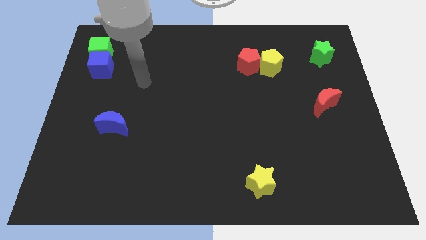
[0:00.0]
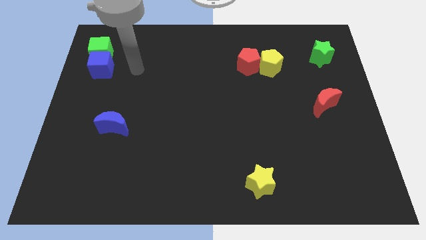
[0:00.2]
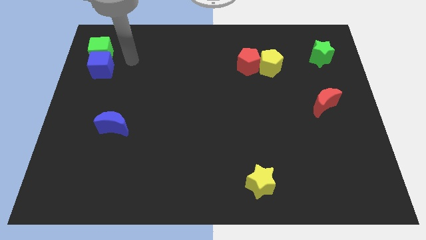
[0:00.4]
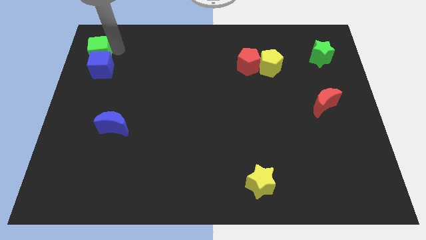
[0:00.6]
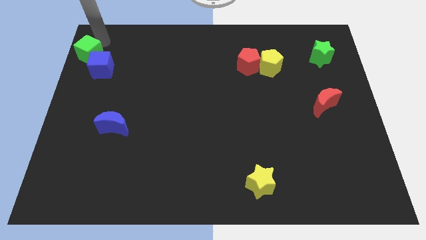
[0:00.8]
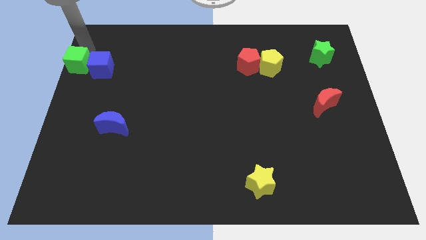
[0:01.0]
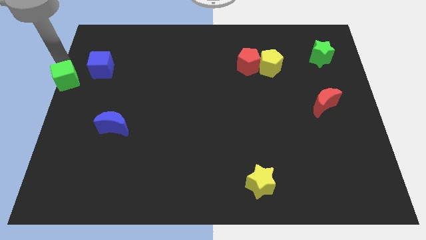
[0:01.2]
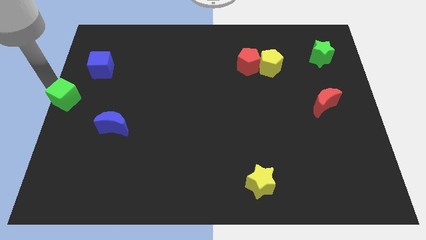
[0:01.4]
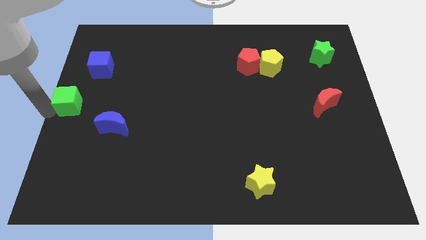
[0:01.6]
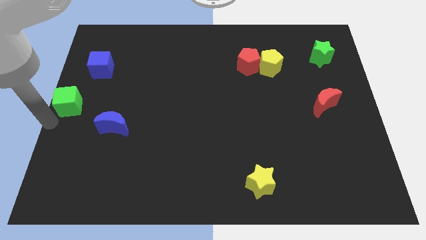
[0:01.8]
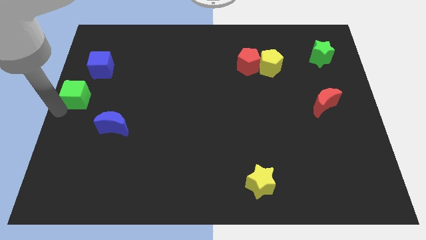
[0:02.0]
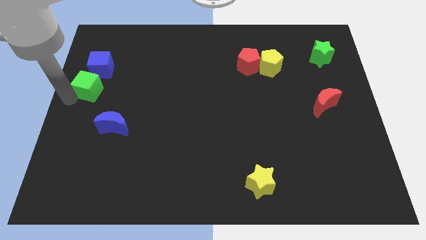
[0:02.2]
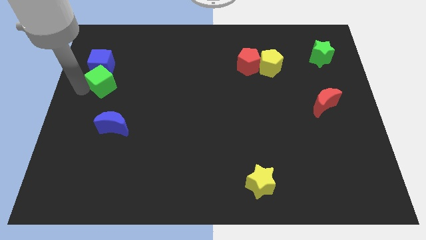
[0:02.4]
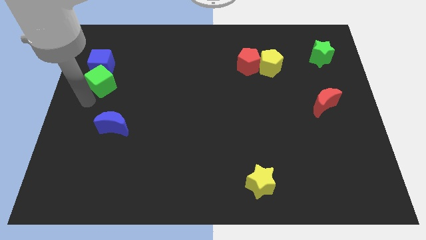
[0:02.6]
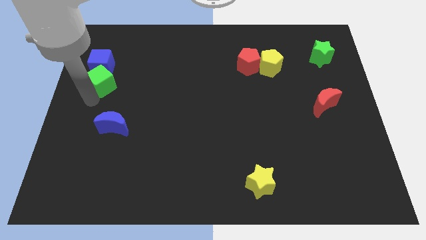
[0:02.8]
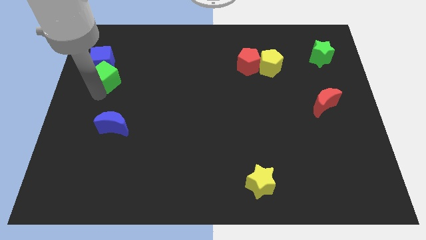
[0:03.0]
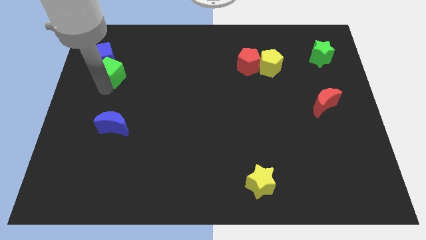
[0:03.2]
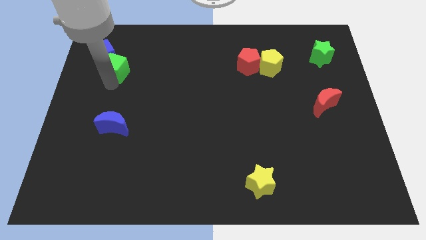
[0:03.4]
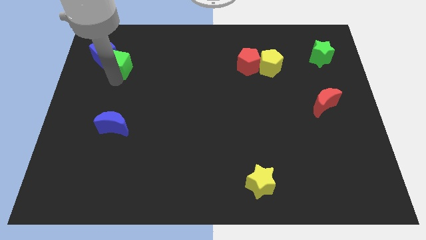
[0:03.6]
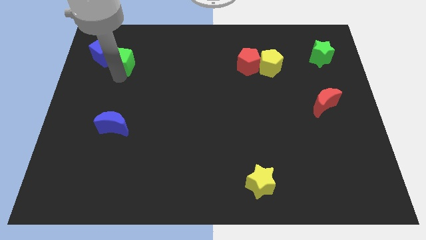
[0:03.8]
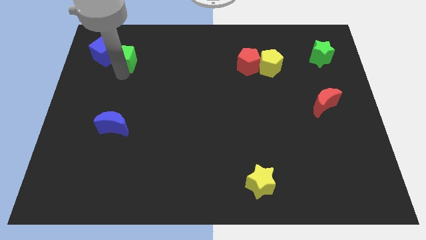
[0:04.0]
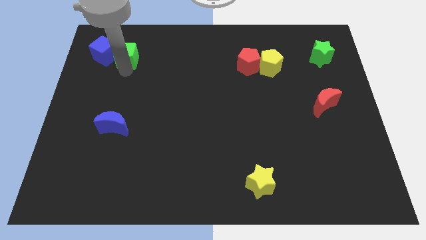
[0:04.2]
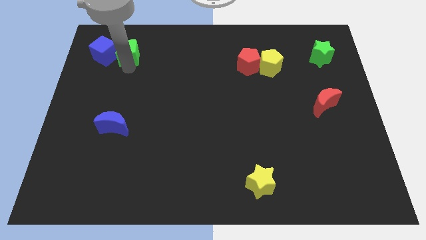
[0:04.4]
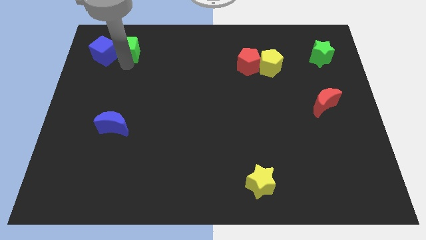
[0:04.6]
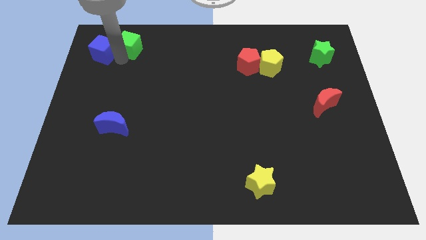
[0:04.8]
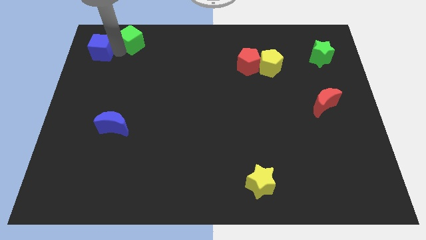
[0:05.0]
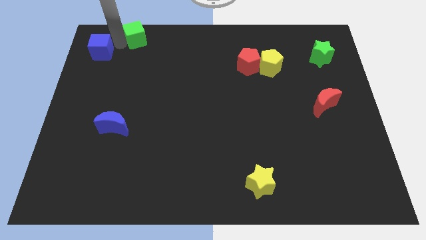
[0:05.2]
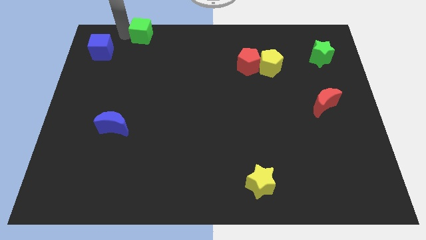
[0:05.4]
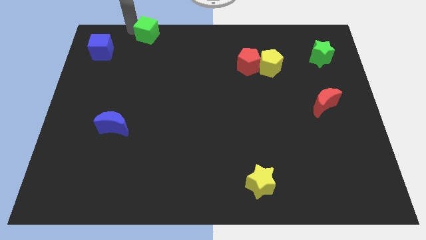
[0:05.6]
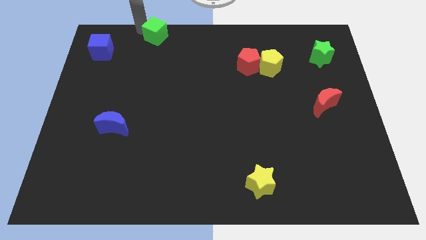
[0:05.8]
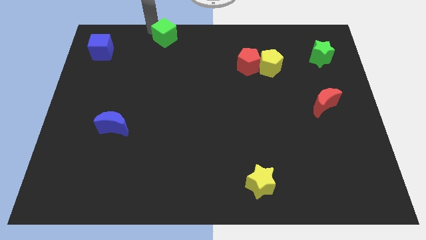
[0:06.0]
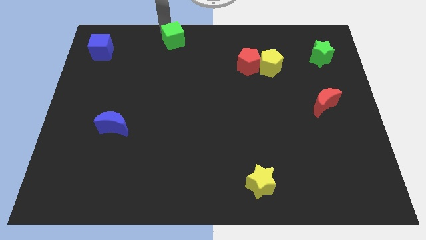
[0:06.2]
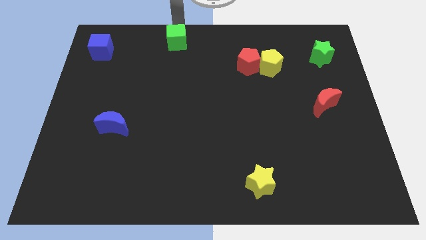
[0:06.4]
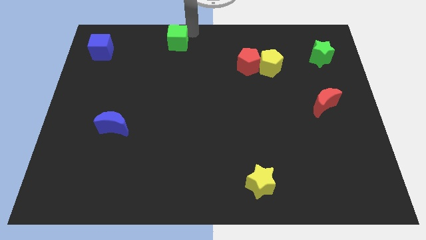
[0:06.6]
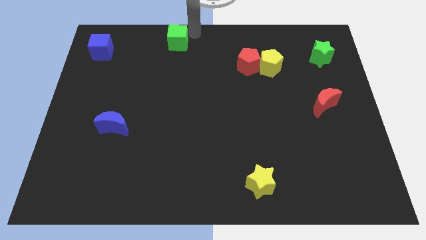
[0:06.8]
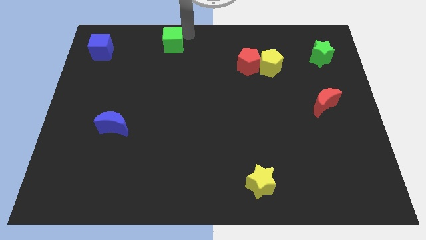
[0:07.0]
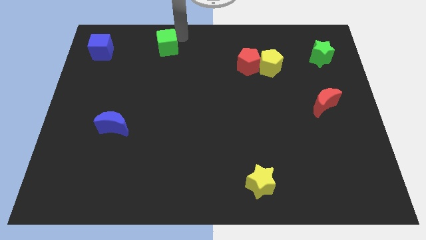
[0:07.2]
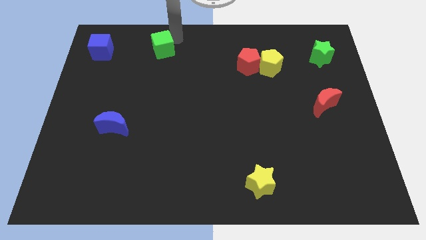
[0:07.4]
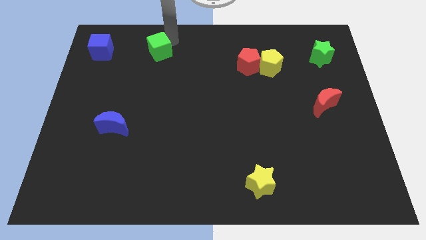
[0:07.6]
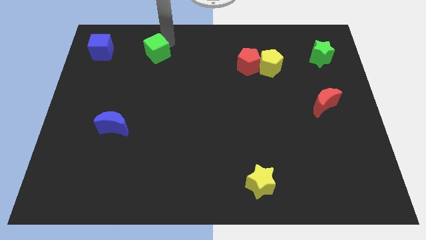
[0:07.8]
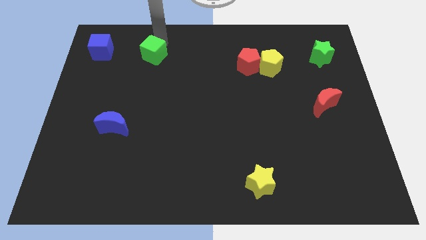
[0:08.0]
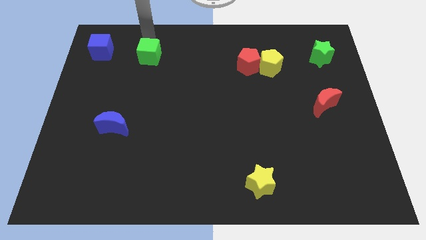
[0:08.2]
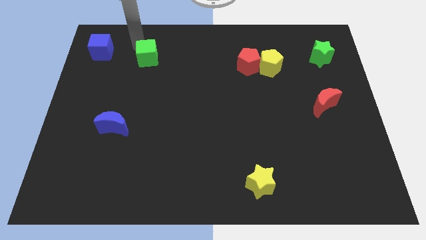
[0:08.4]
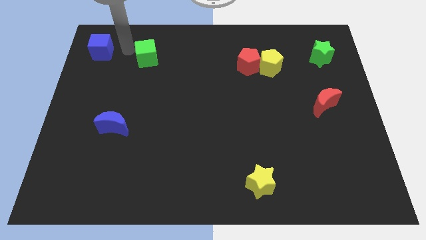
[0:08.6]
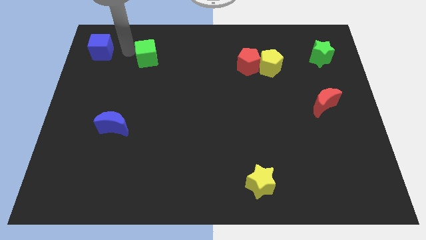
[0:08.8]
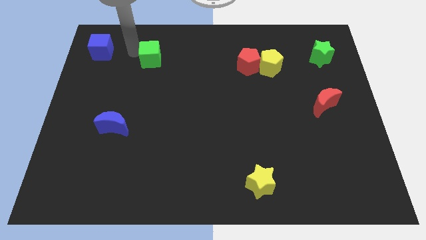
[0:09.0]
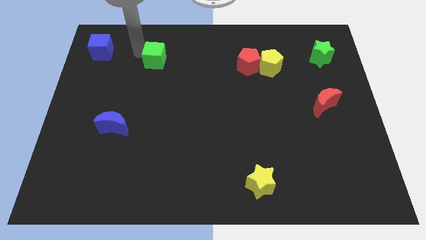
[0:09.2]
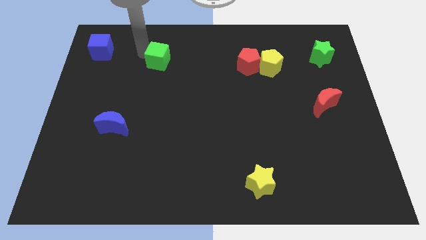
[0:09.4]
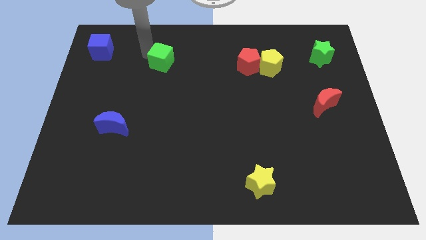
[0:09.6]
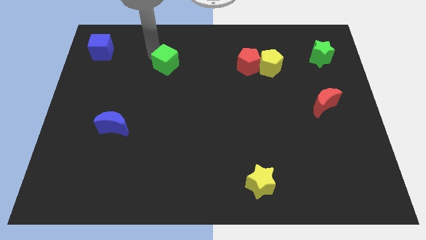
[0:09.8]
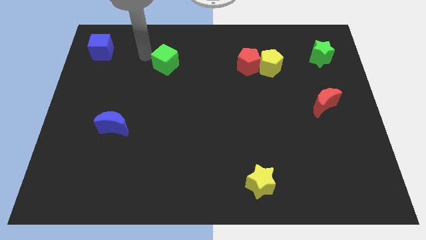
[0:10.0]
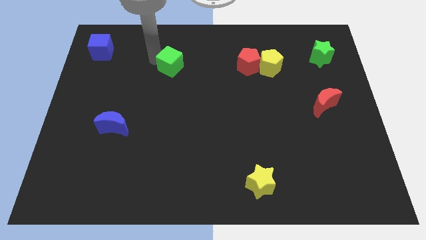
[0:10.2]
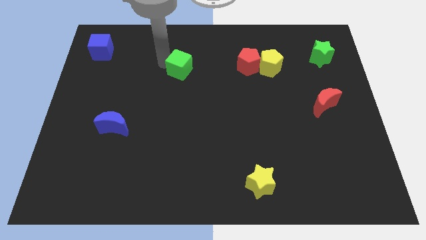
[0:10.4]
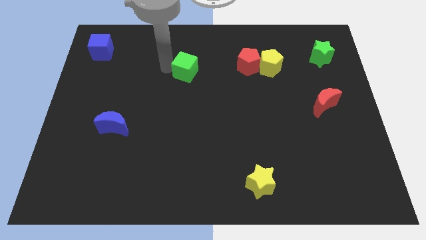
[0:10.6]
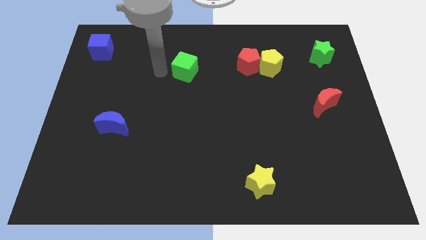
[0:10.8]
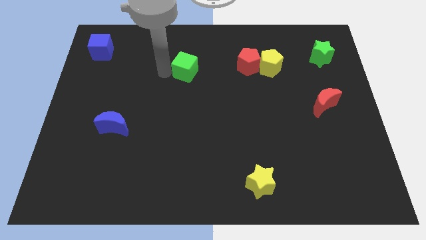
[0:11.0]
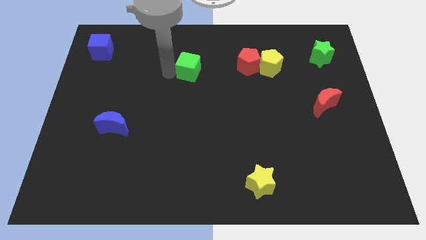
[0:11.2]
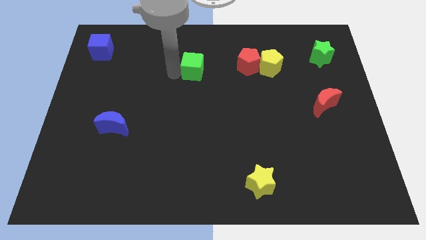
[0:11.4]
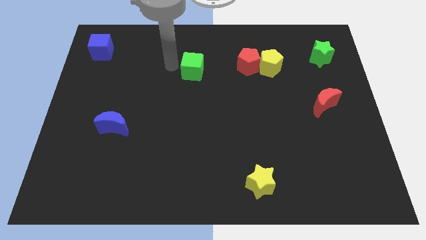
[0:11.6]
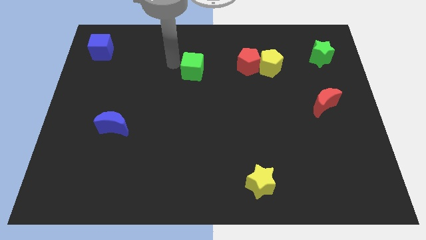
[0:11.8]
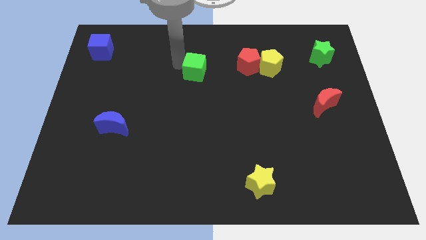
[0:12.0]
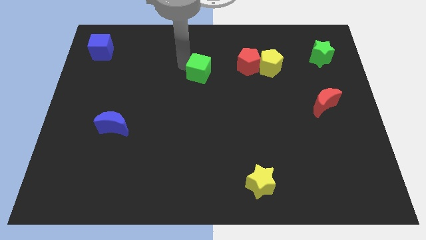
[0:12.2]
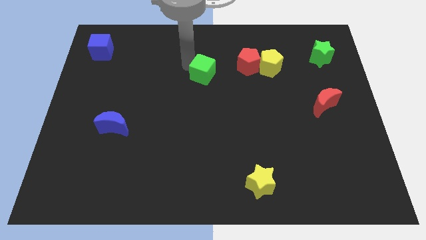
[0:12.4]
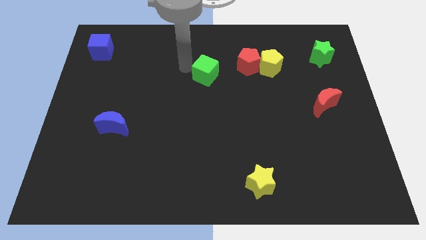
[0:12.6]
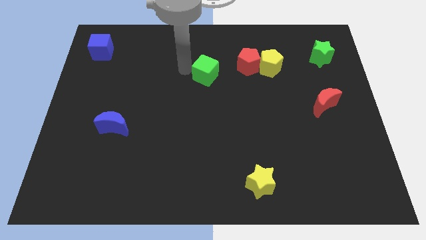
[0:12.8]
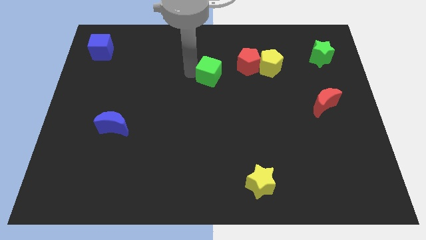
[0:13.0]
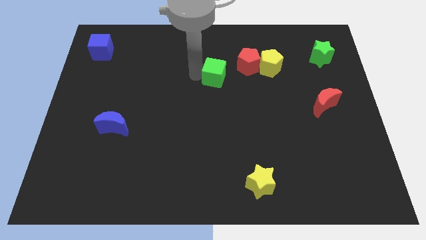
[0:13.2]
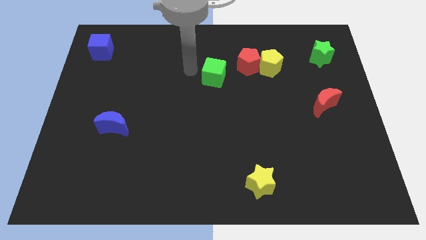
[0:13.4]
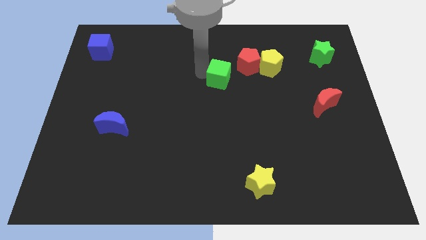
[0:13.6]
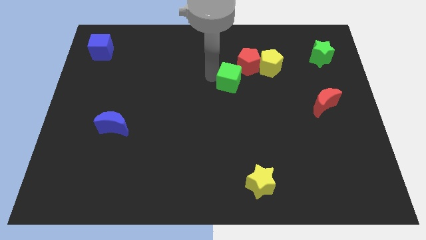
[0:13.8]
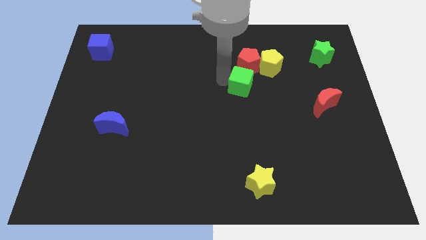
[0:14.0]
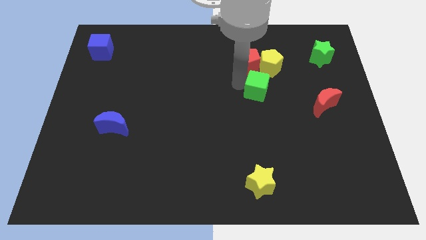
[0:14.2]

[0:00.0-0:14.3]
slide the green cube below the yellow pentagon
